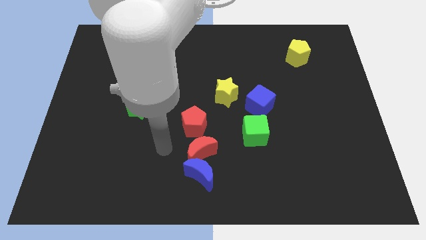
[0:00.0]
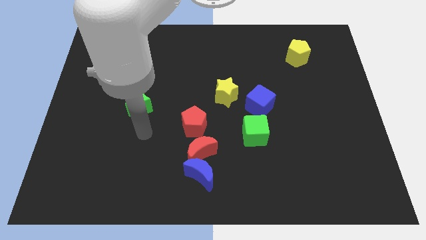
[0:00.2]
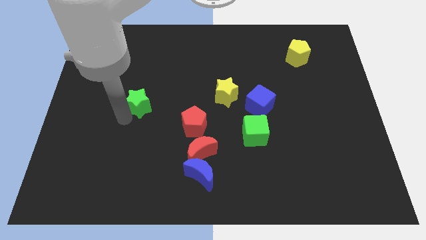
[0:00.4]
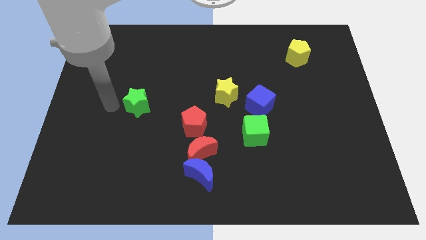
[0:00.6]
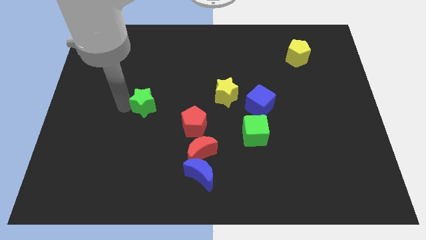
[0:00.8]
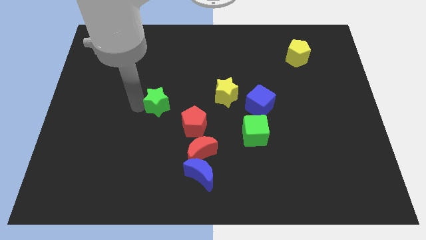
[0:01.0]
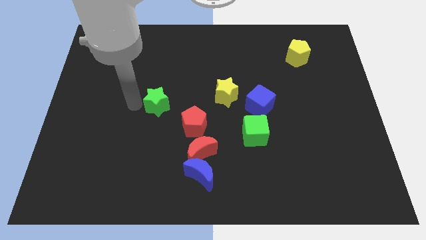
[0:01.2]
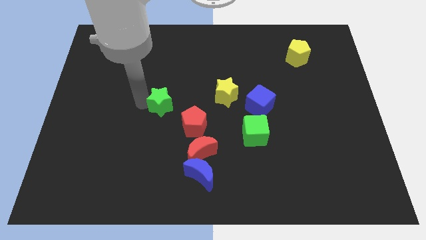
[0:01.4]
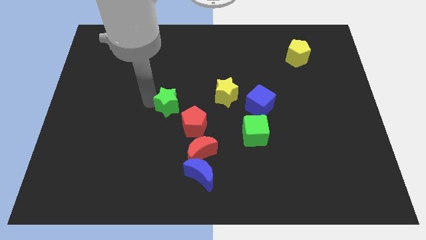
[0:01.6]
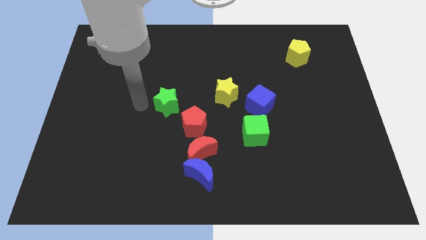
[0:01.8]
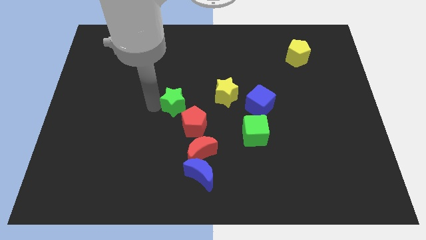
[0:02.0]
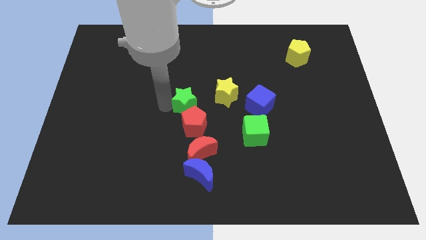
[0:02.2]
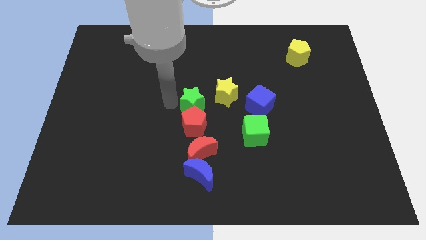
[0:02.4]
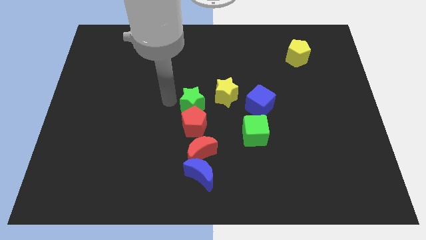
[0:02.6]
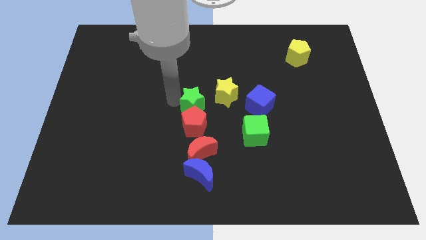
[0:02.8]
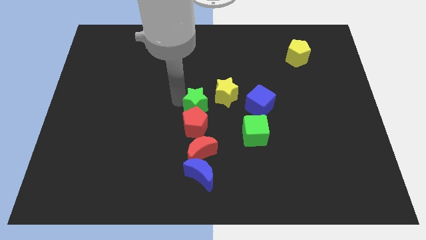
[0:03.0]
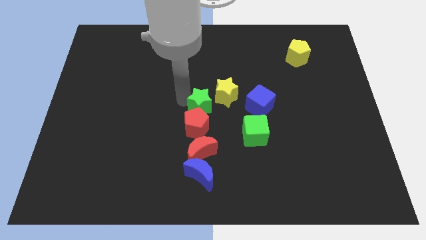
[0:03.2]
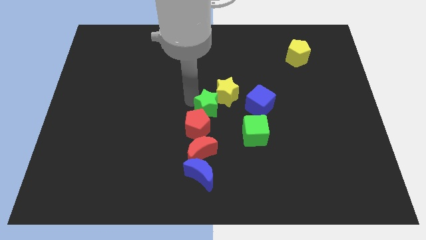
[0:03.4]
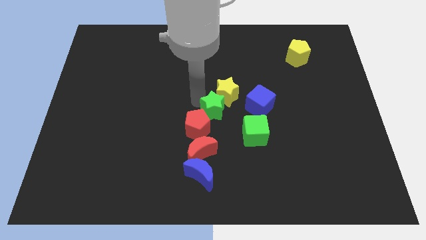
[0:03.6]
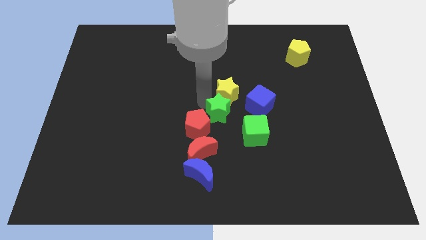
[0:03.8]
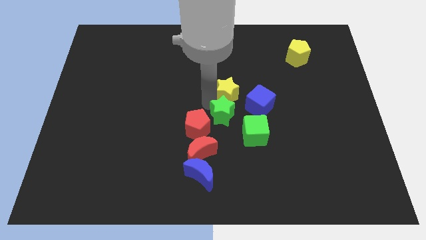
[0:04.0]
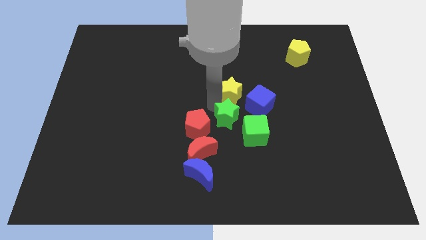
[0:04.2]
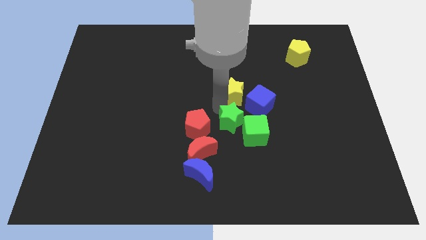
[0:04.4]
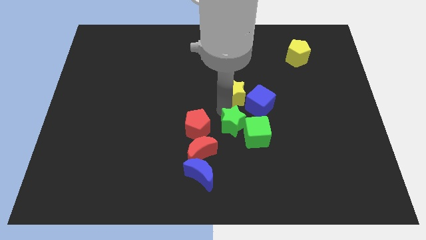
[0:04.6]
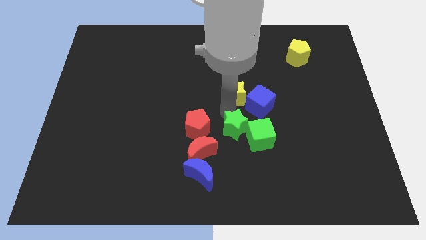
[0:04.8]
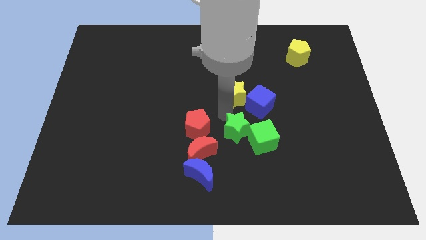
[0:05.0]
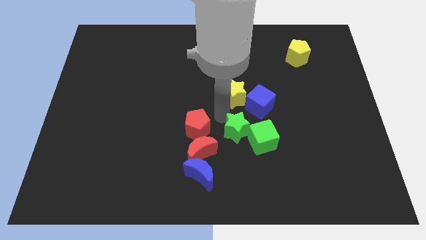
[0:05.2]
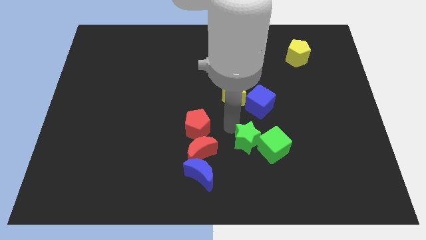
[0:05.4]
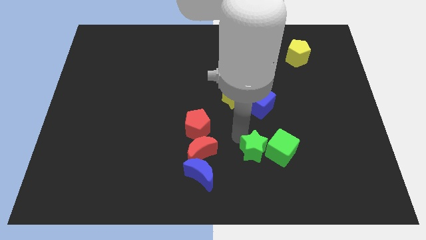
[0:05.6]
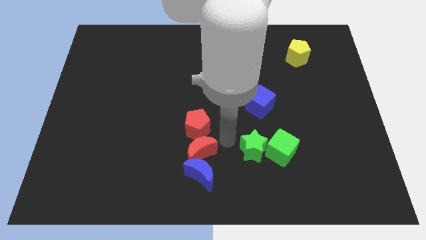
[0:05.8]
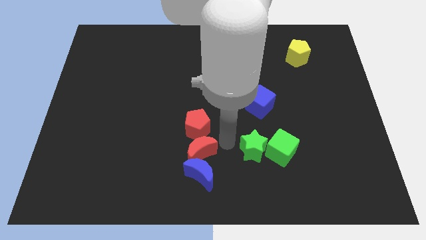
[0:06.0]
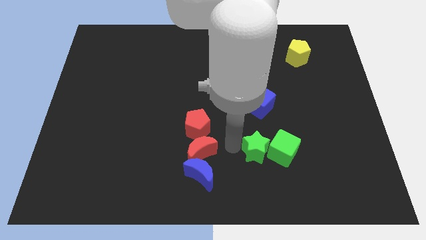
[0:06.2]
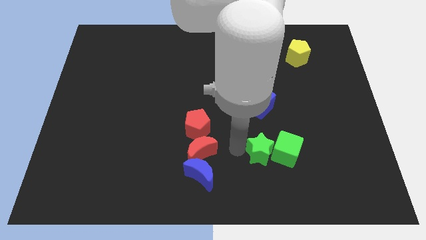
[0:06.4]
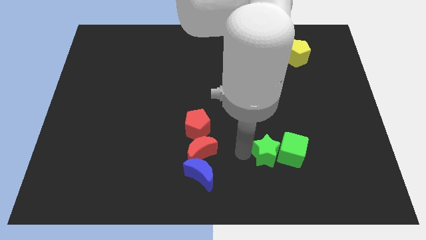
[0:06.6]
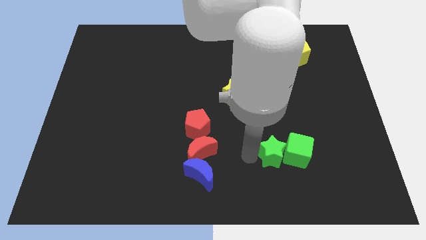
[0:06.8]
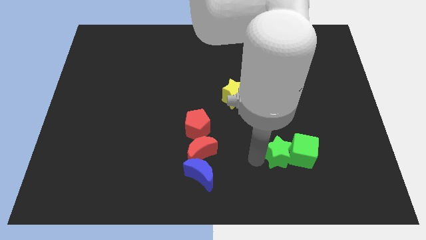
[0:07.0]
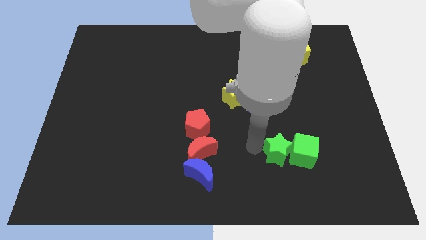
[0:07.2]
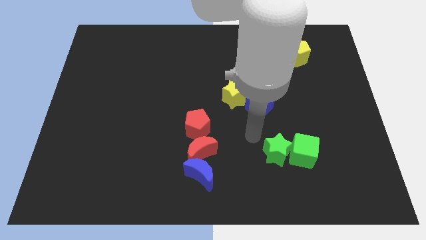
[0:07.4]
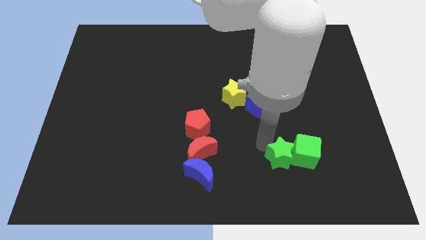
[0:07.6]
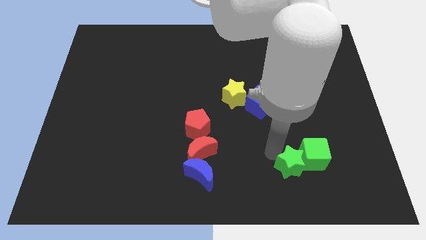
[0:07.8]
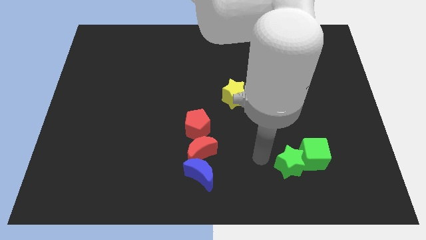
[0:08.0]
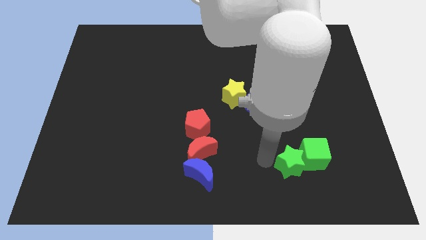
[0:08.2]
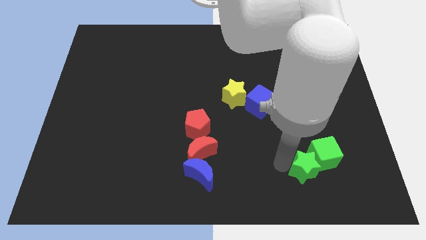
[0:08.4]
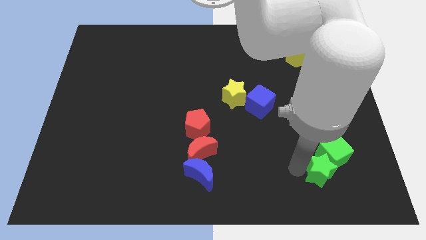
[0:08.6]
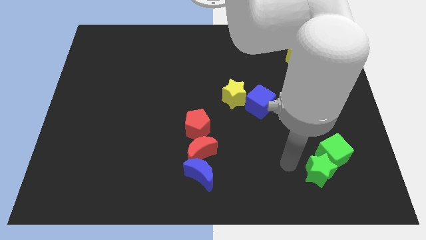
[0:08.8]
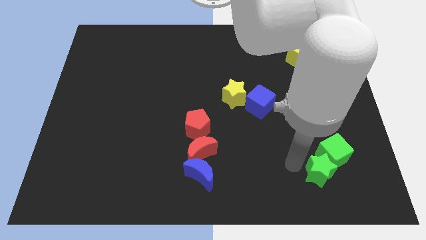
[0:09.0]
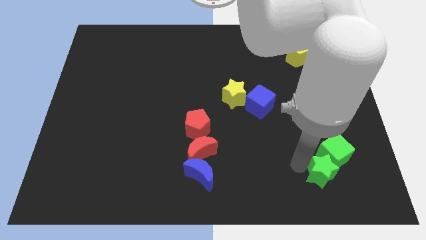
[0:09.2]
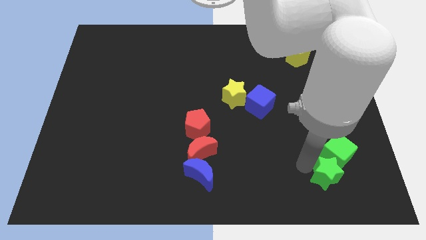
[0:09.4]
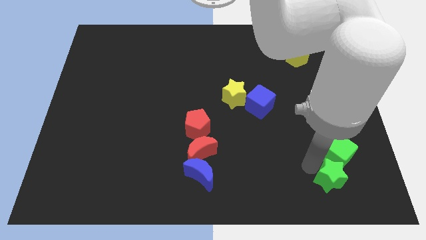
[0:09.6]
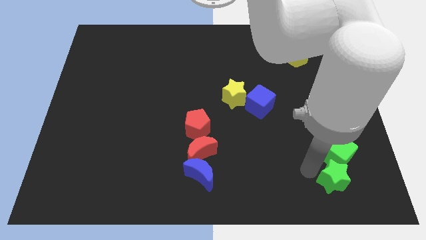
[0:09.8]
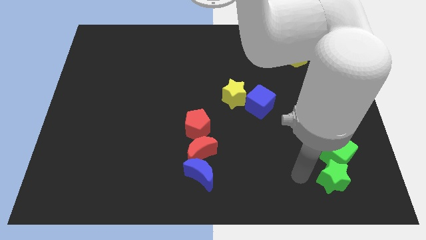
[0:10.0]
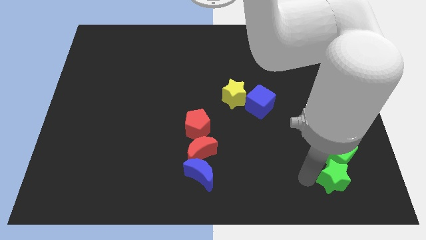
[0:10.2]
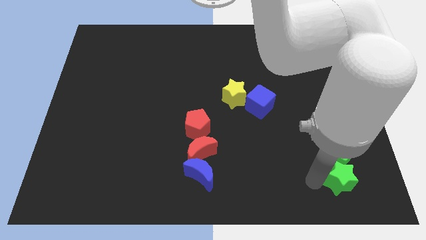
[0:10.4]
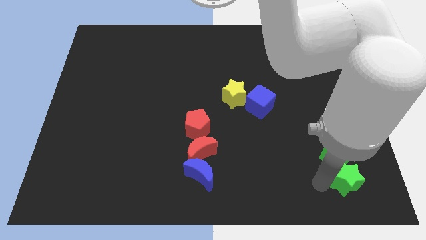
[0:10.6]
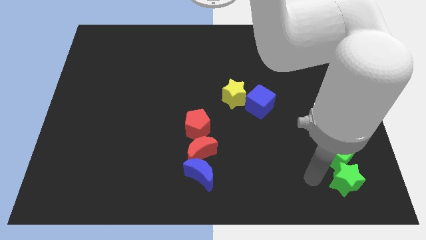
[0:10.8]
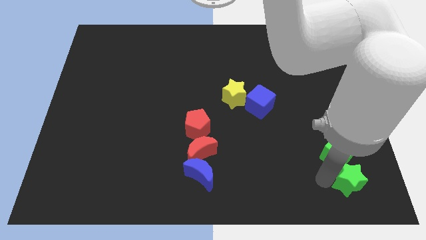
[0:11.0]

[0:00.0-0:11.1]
slide the green star to the lower right corner
